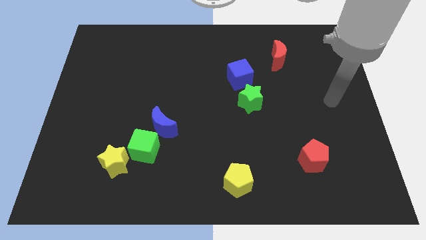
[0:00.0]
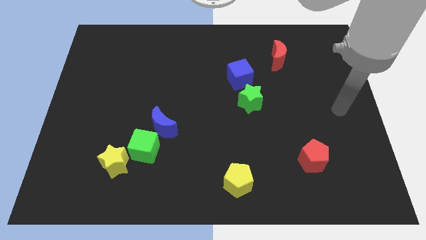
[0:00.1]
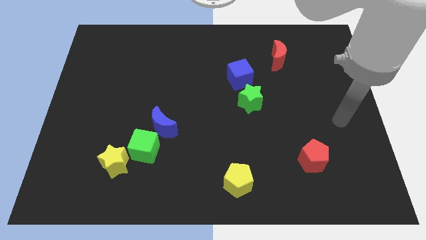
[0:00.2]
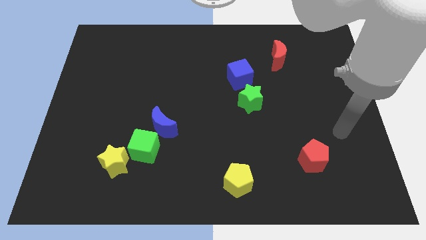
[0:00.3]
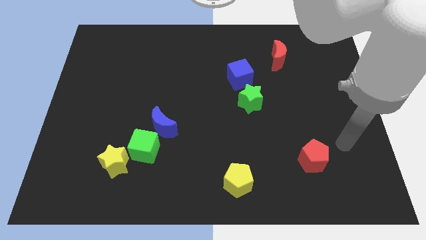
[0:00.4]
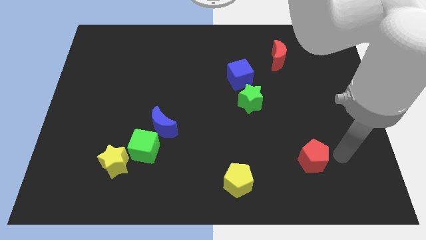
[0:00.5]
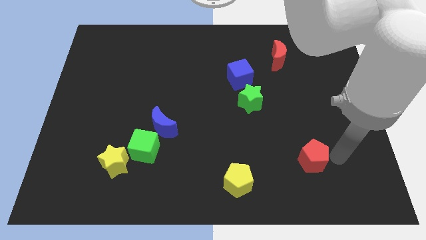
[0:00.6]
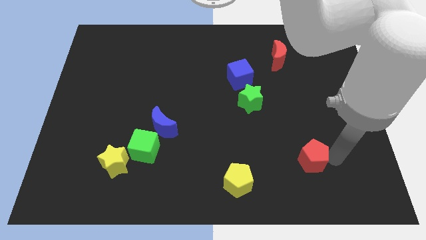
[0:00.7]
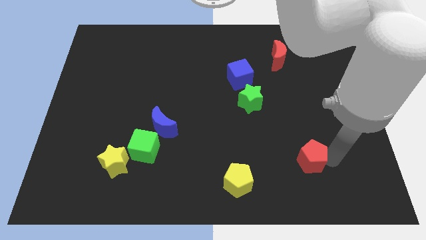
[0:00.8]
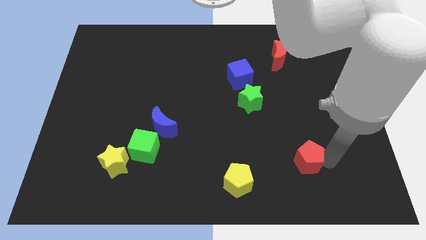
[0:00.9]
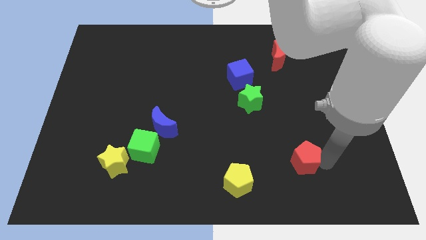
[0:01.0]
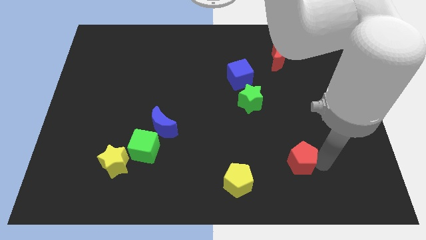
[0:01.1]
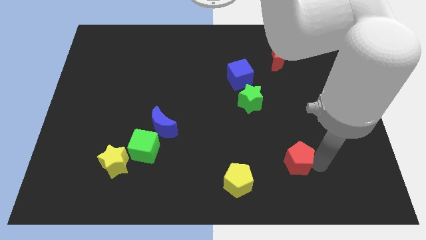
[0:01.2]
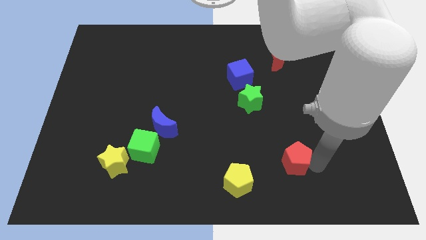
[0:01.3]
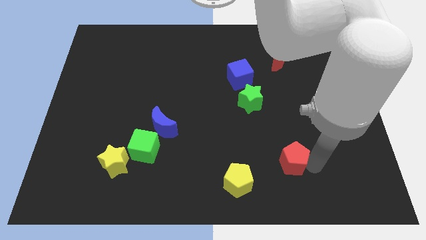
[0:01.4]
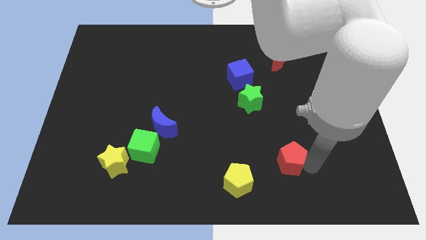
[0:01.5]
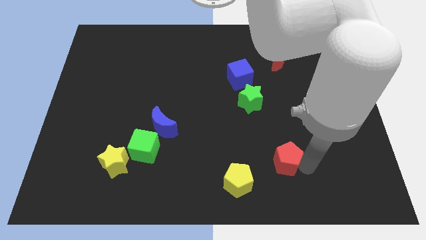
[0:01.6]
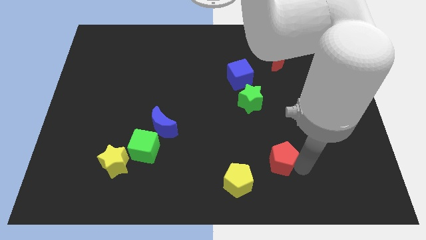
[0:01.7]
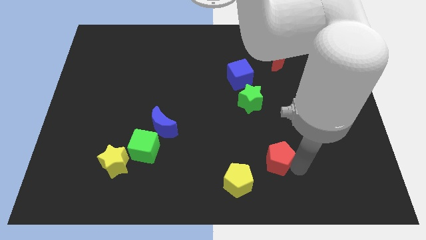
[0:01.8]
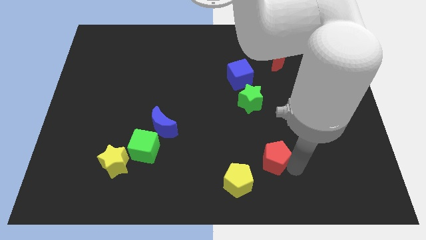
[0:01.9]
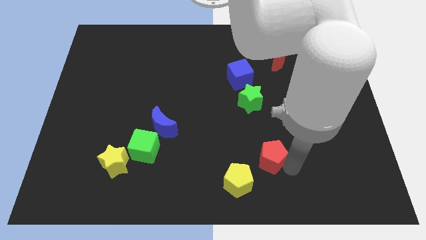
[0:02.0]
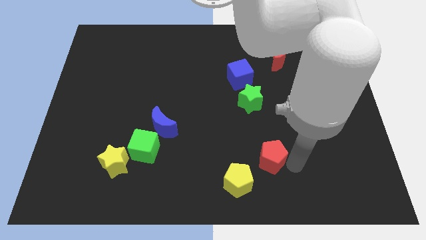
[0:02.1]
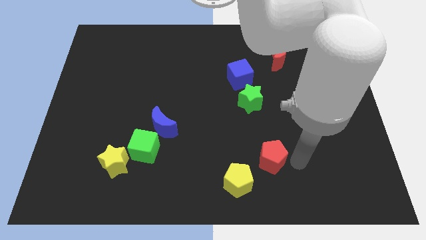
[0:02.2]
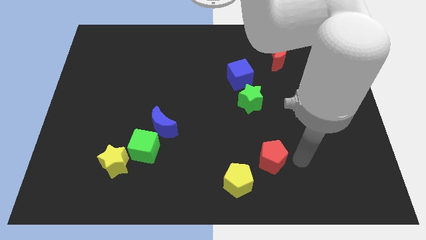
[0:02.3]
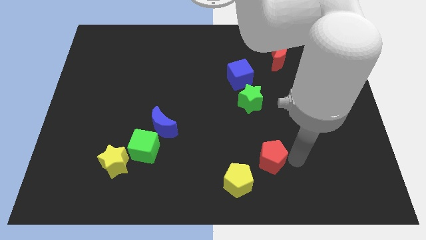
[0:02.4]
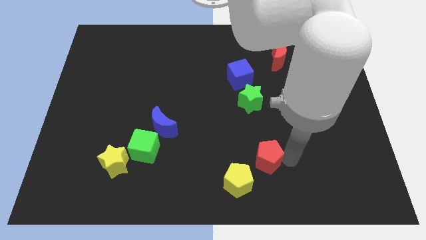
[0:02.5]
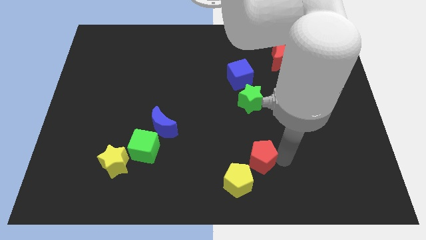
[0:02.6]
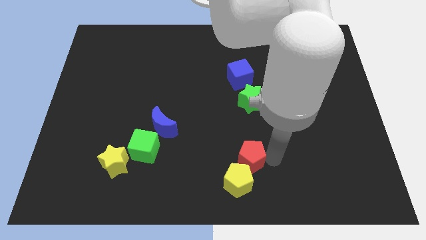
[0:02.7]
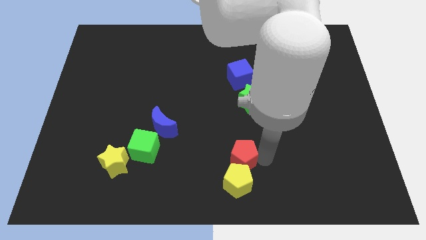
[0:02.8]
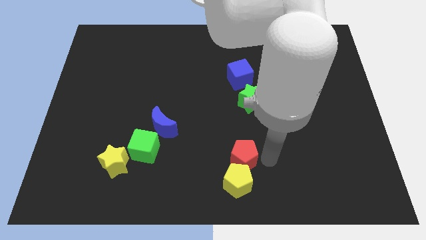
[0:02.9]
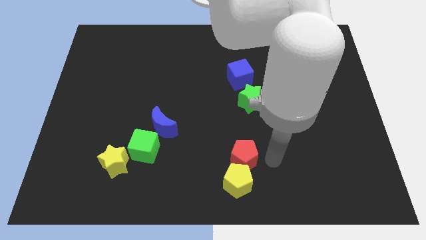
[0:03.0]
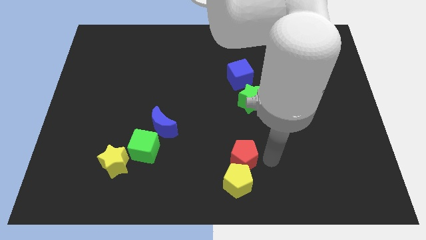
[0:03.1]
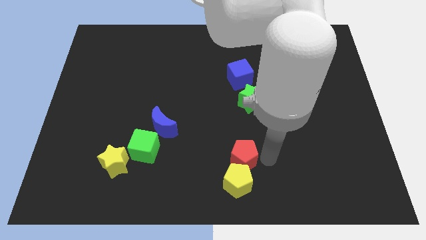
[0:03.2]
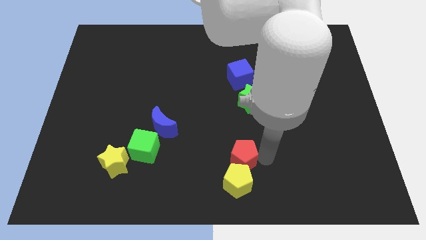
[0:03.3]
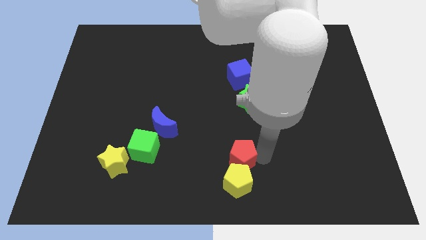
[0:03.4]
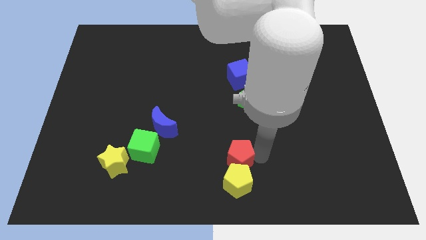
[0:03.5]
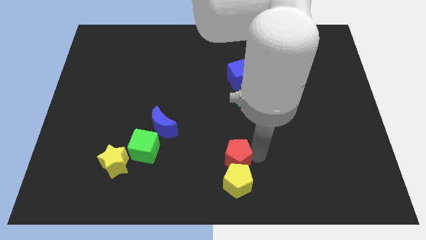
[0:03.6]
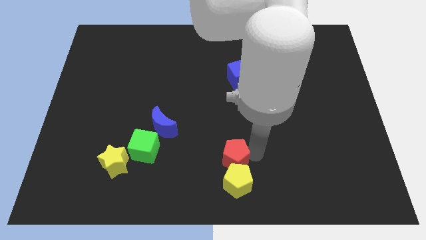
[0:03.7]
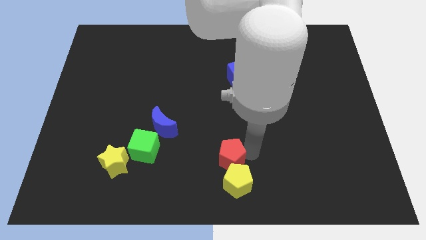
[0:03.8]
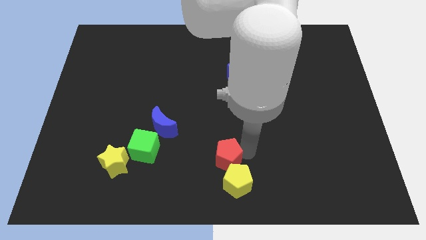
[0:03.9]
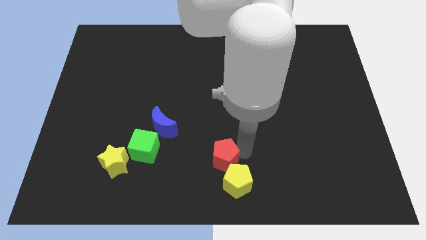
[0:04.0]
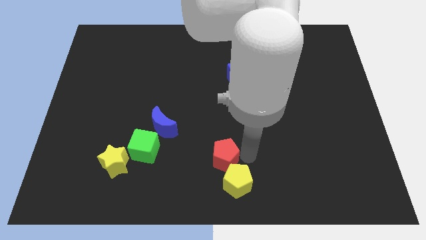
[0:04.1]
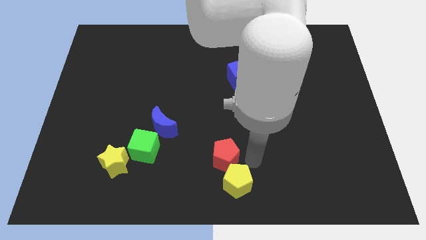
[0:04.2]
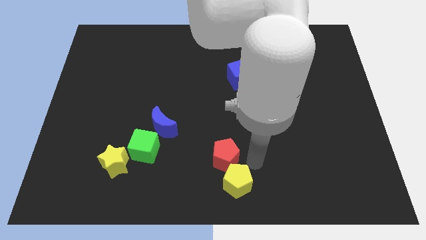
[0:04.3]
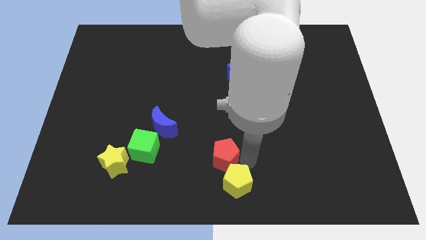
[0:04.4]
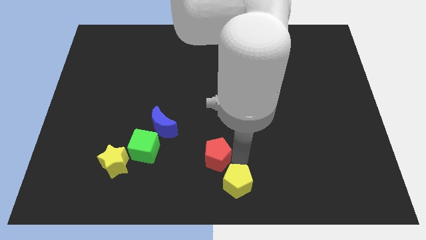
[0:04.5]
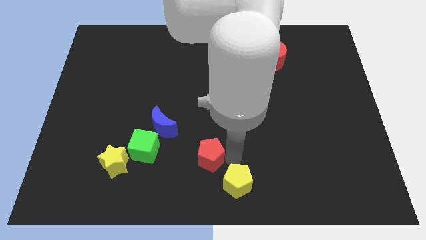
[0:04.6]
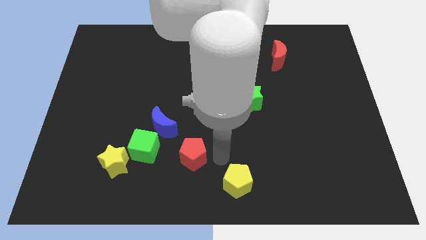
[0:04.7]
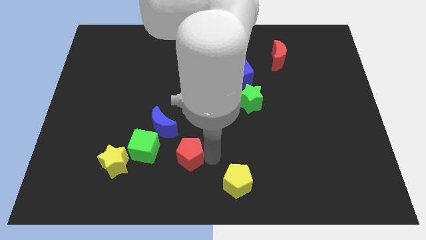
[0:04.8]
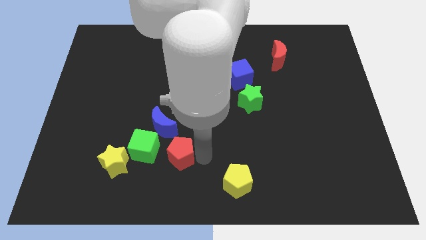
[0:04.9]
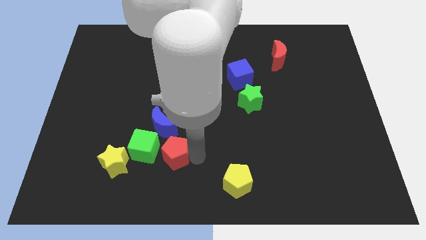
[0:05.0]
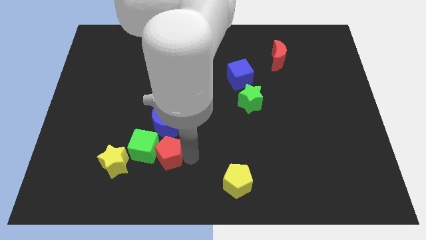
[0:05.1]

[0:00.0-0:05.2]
slide the red pentagon to the green cube

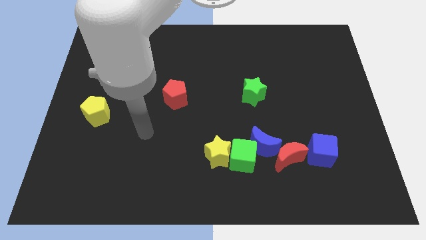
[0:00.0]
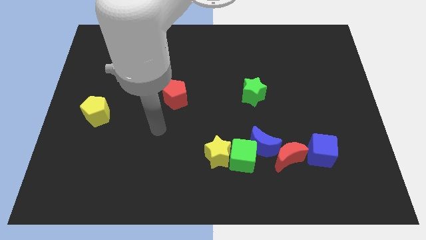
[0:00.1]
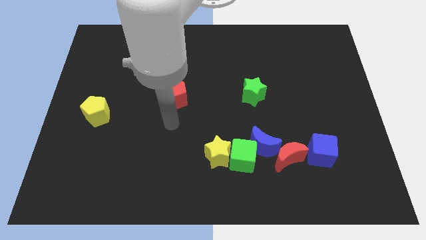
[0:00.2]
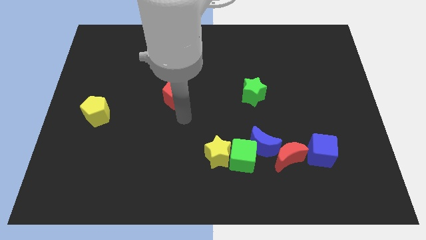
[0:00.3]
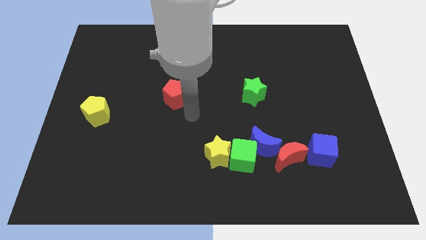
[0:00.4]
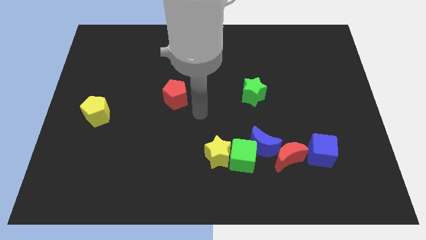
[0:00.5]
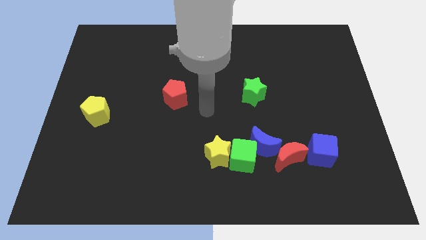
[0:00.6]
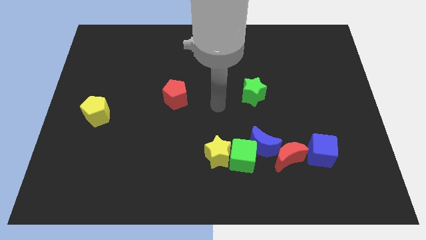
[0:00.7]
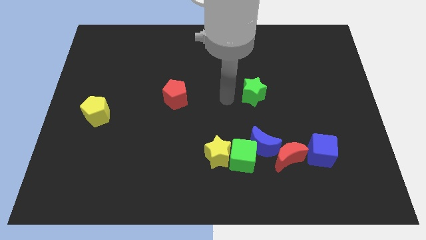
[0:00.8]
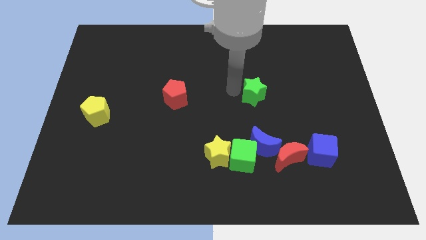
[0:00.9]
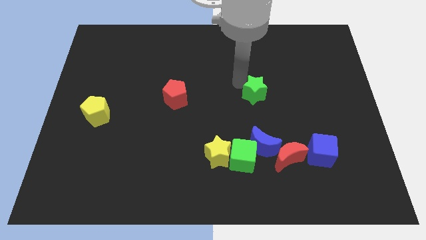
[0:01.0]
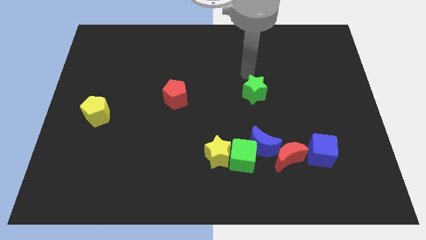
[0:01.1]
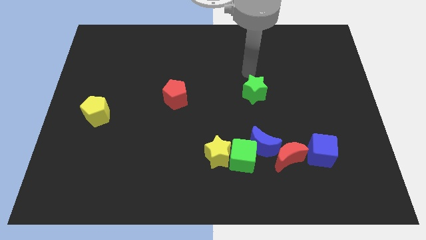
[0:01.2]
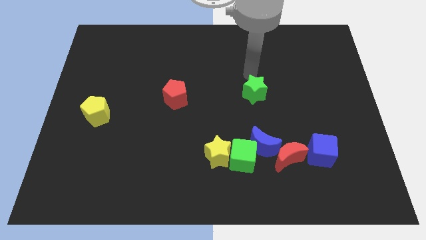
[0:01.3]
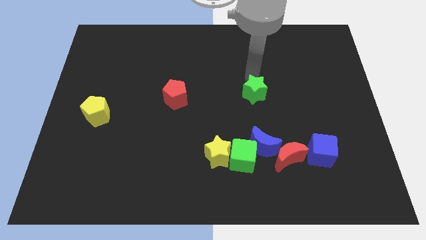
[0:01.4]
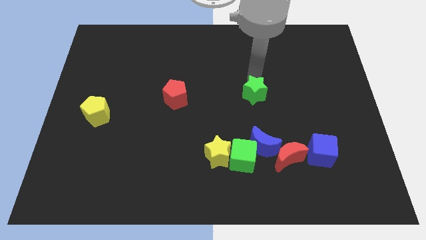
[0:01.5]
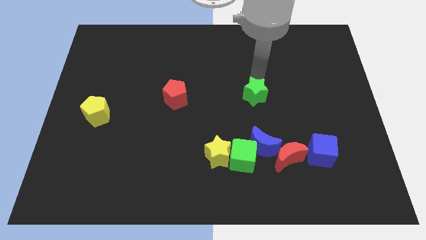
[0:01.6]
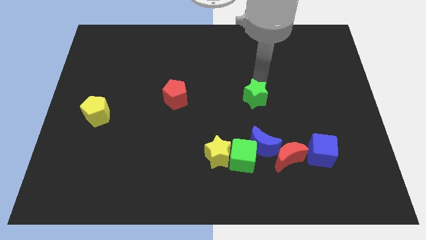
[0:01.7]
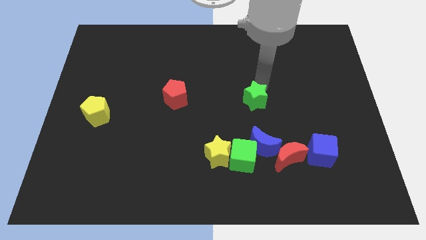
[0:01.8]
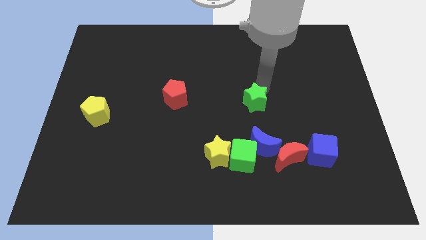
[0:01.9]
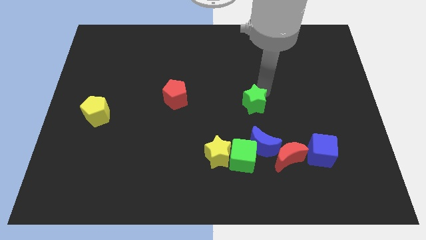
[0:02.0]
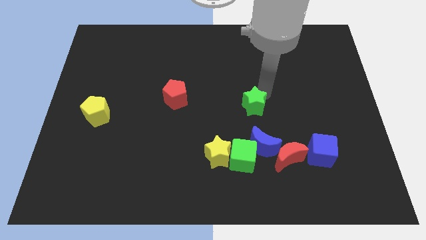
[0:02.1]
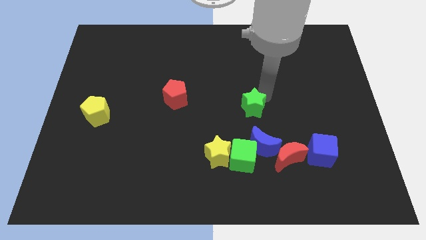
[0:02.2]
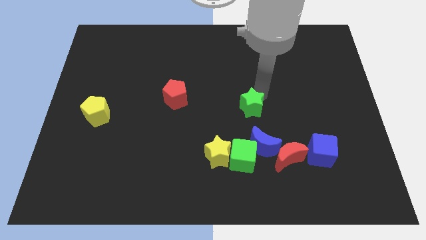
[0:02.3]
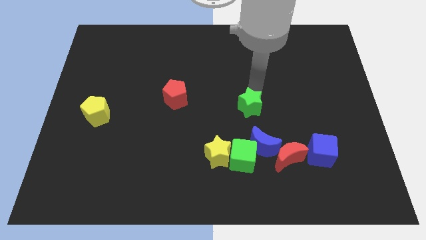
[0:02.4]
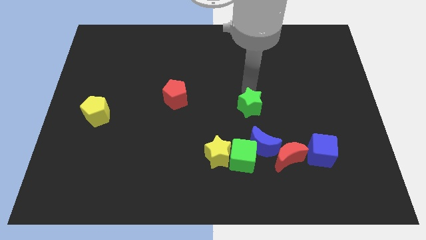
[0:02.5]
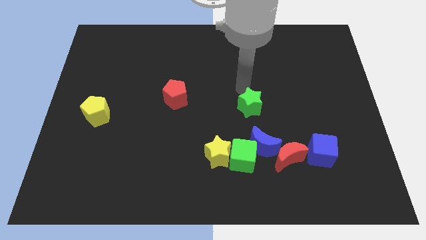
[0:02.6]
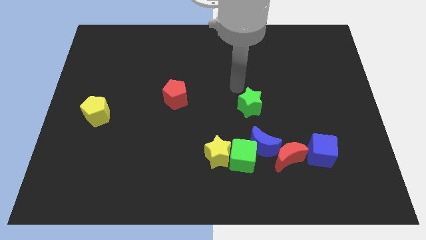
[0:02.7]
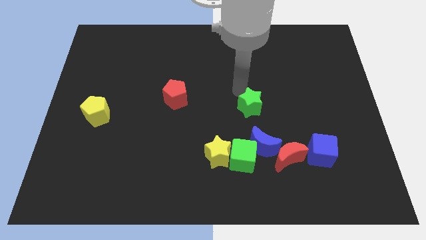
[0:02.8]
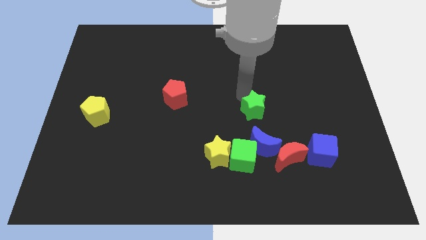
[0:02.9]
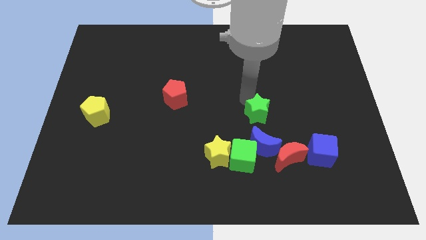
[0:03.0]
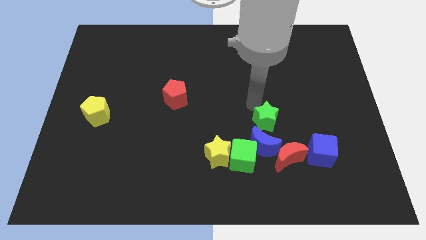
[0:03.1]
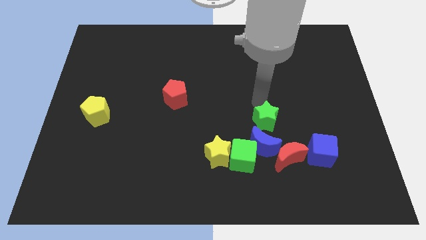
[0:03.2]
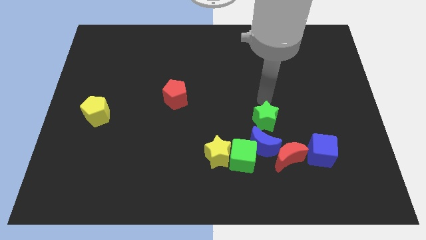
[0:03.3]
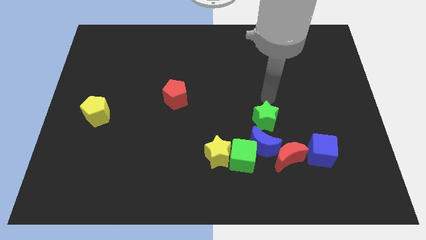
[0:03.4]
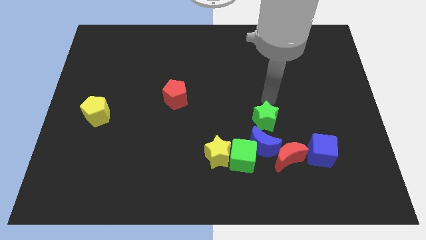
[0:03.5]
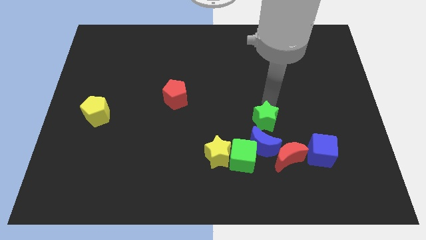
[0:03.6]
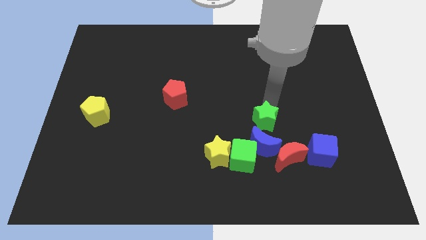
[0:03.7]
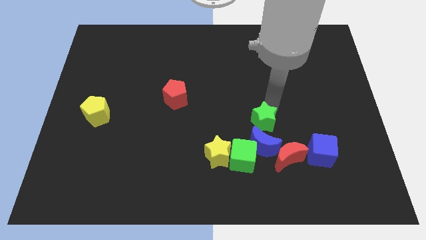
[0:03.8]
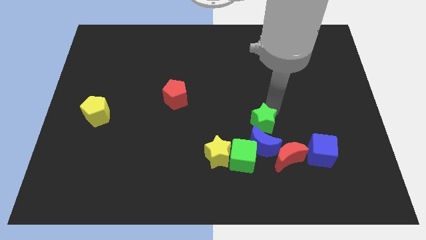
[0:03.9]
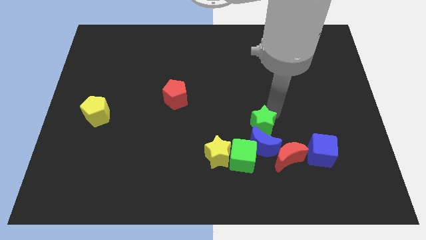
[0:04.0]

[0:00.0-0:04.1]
slide the green star towards the blue moon
